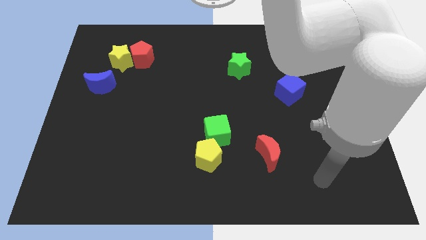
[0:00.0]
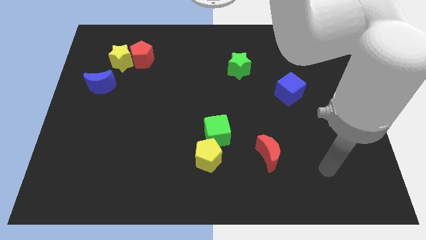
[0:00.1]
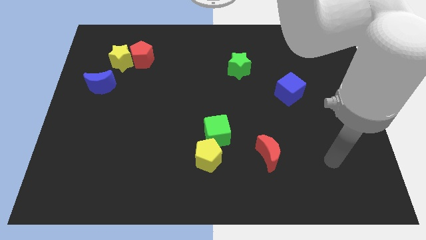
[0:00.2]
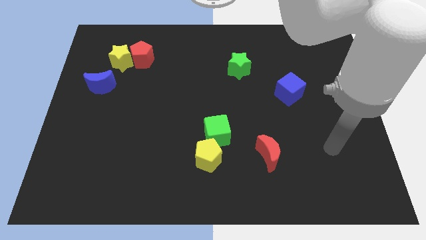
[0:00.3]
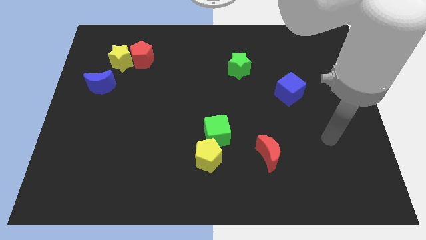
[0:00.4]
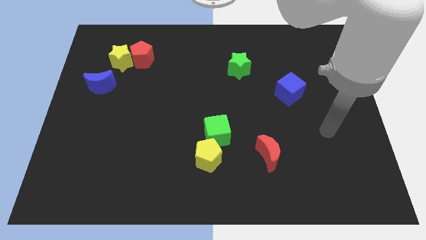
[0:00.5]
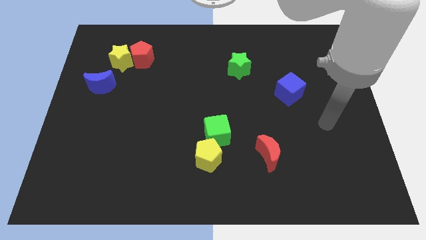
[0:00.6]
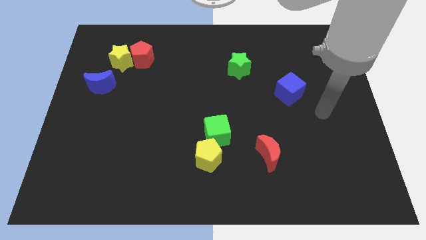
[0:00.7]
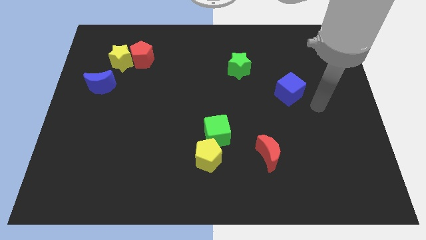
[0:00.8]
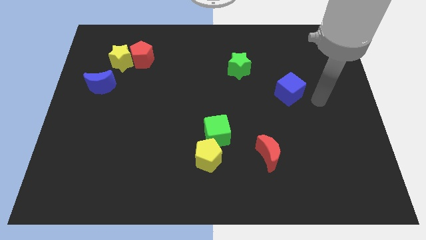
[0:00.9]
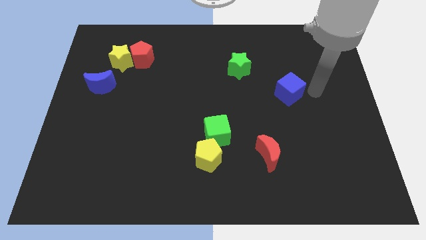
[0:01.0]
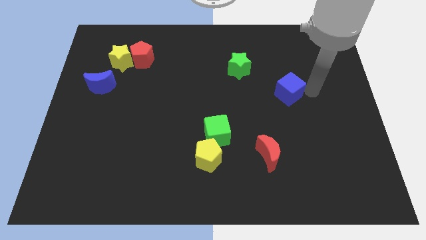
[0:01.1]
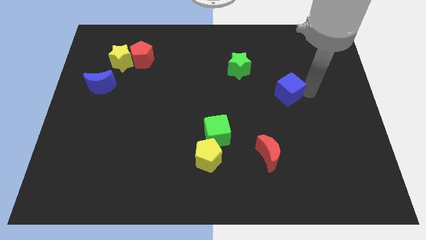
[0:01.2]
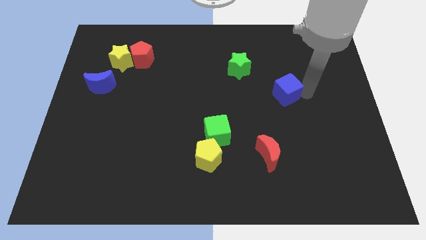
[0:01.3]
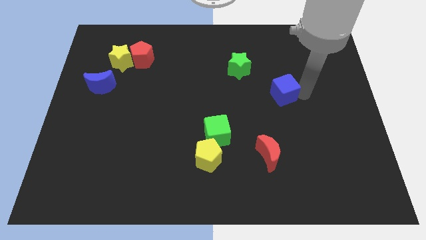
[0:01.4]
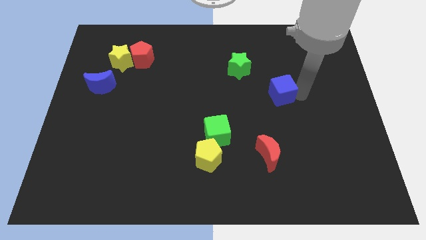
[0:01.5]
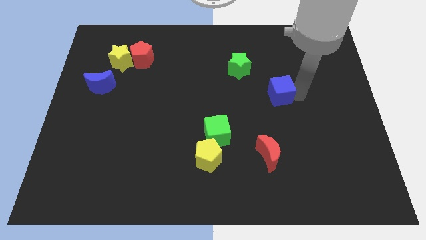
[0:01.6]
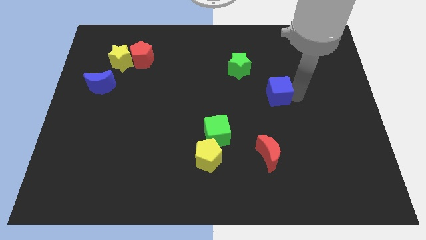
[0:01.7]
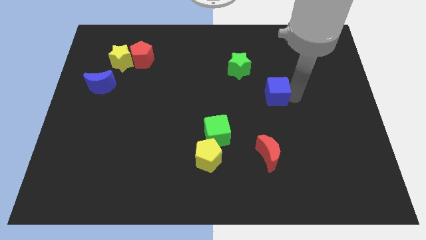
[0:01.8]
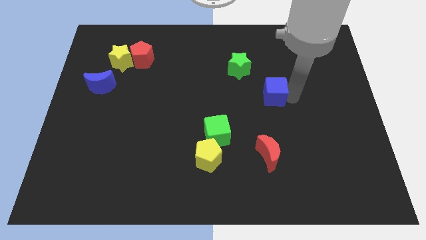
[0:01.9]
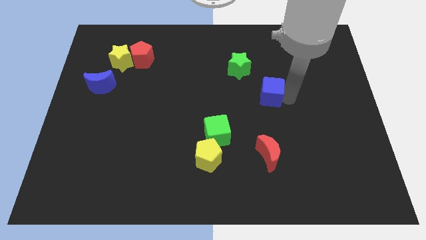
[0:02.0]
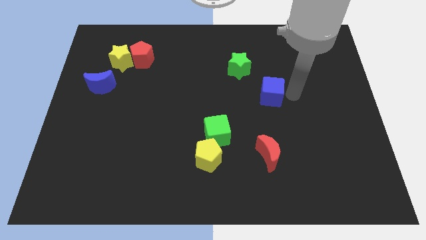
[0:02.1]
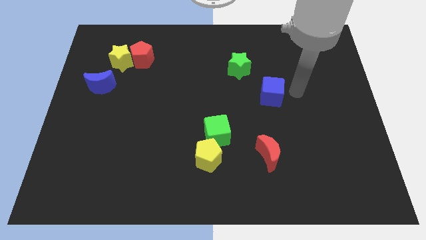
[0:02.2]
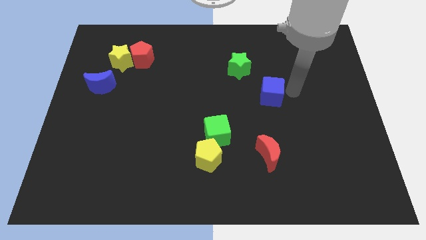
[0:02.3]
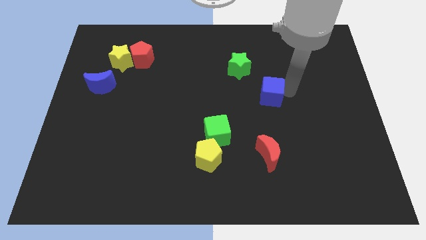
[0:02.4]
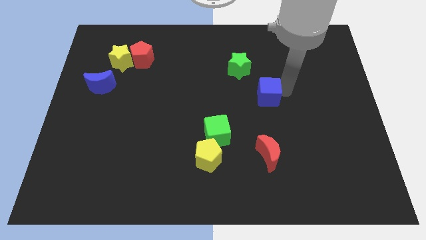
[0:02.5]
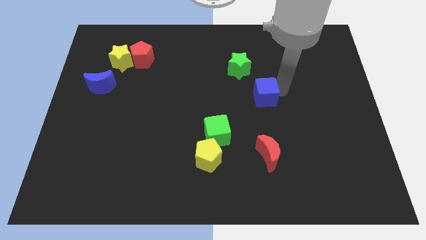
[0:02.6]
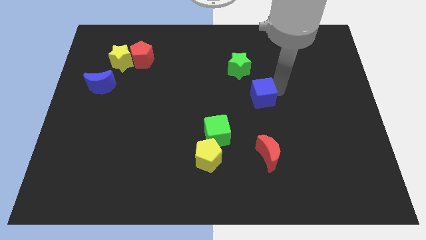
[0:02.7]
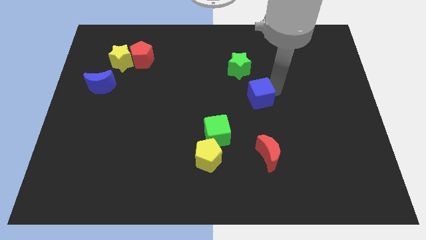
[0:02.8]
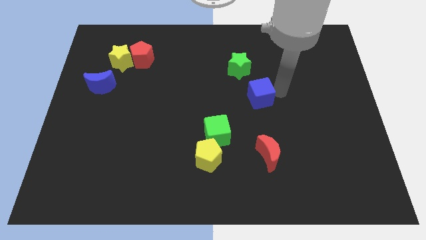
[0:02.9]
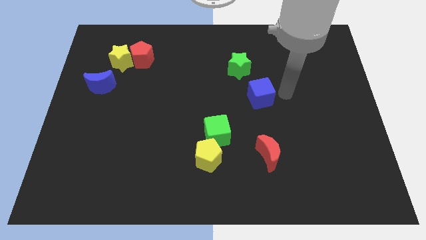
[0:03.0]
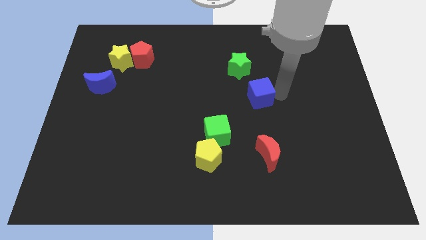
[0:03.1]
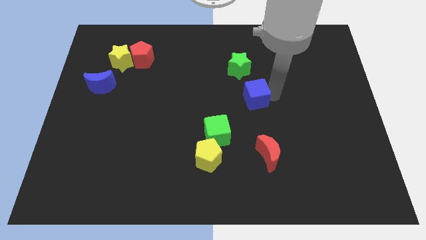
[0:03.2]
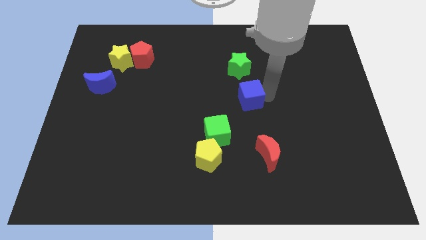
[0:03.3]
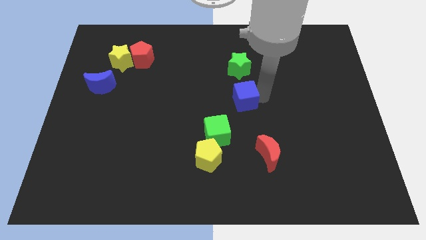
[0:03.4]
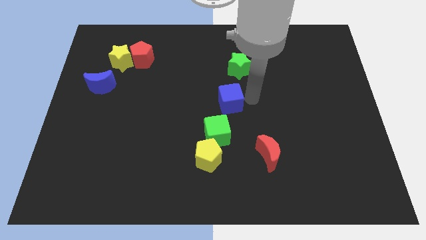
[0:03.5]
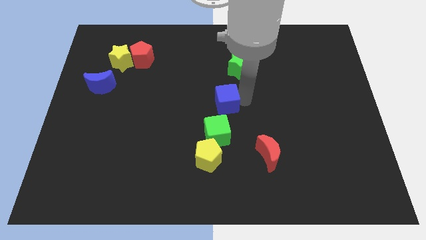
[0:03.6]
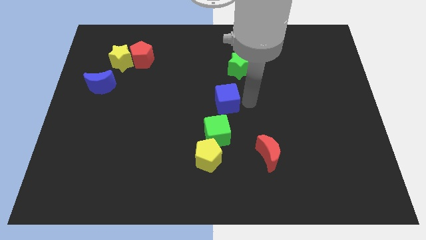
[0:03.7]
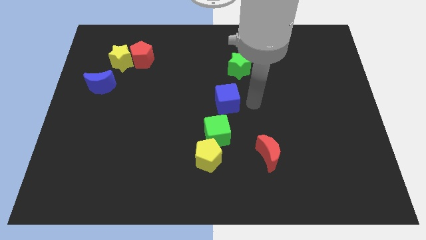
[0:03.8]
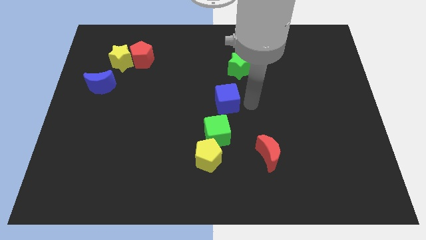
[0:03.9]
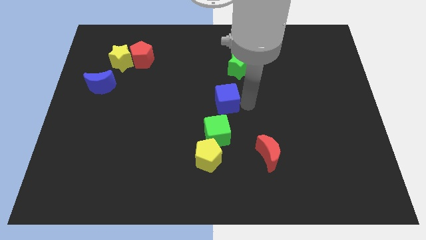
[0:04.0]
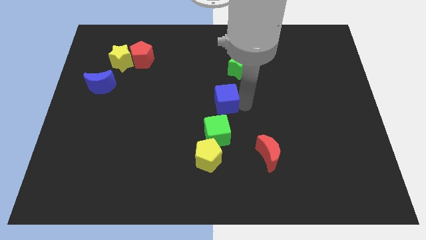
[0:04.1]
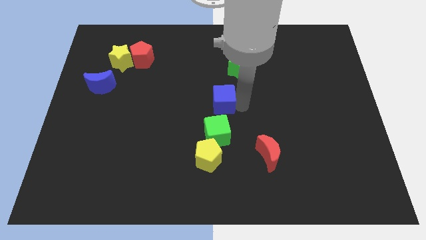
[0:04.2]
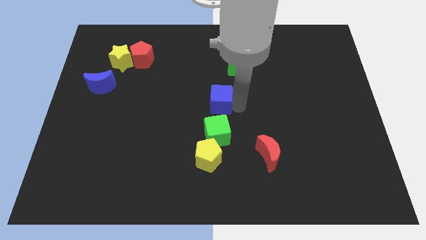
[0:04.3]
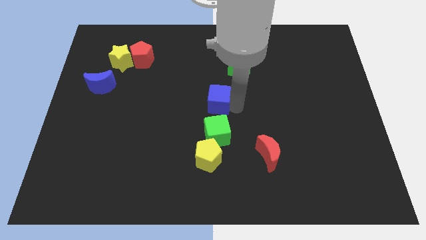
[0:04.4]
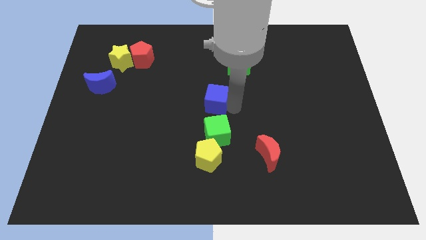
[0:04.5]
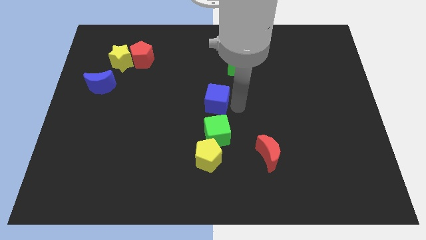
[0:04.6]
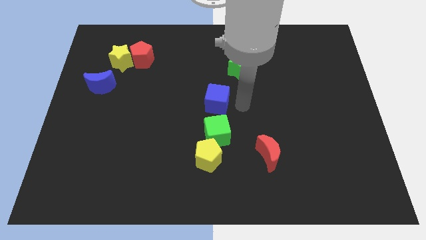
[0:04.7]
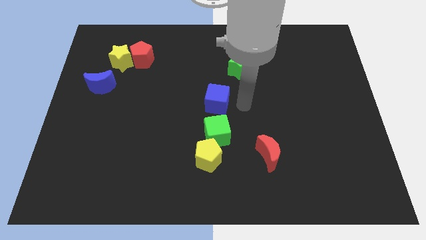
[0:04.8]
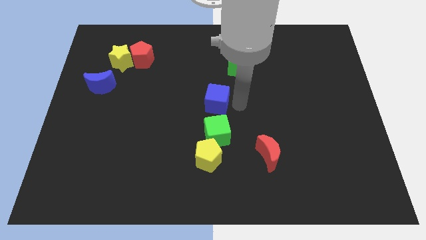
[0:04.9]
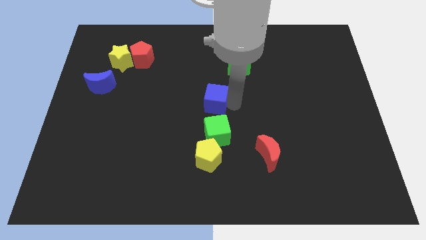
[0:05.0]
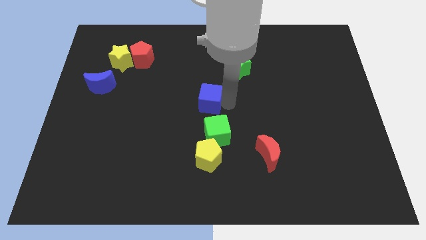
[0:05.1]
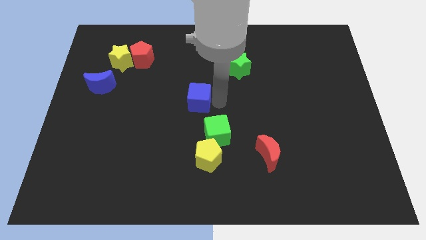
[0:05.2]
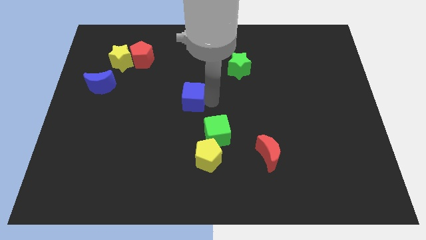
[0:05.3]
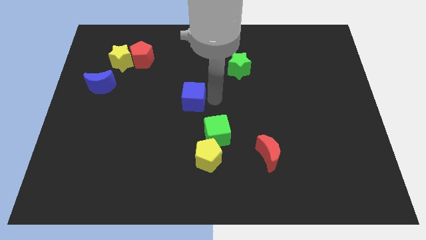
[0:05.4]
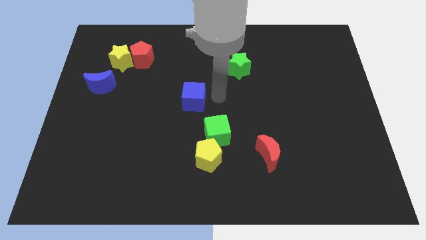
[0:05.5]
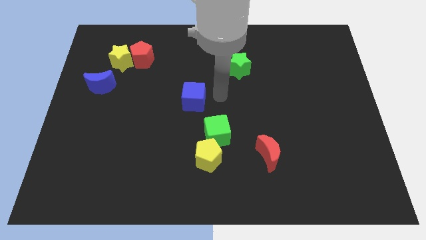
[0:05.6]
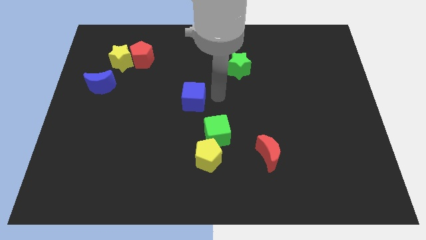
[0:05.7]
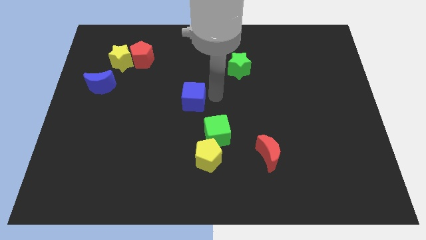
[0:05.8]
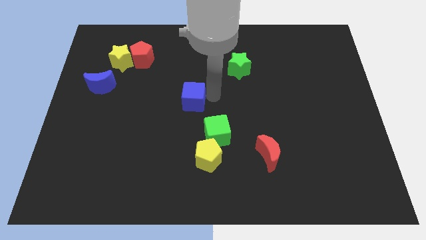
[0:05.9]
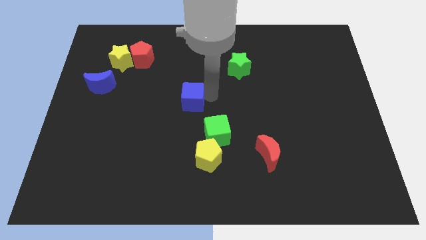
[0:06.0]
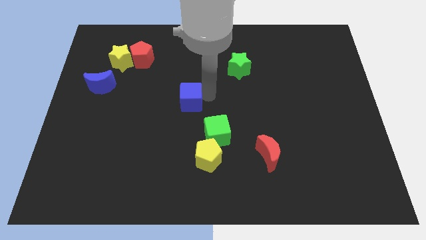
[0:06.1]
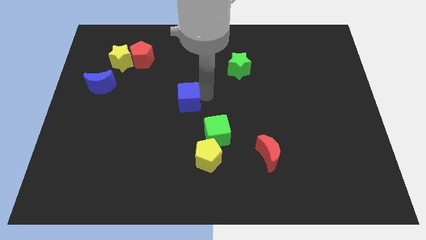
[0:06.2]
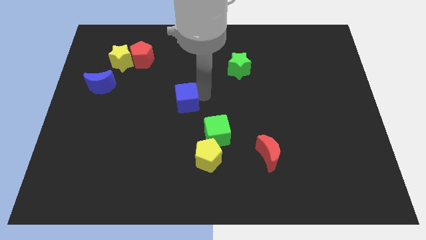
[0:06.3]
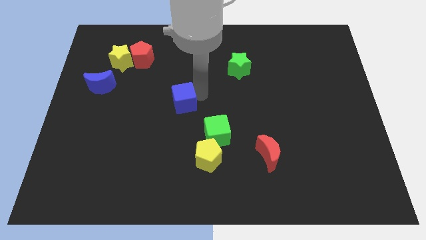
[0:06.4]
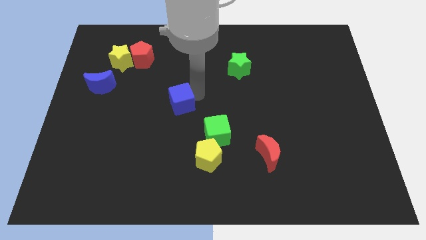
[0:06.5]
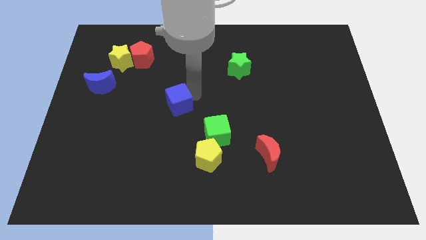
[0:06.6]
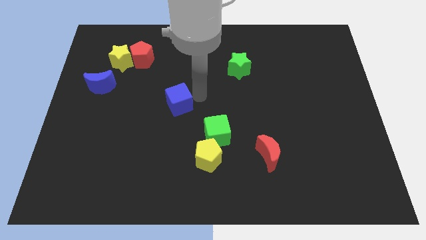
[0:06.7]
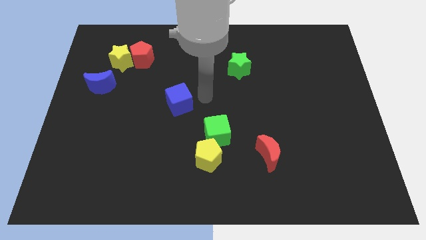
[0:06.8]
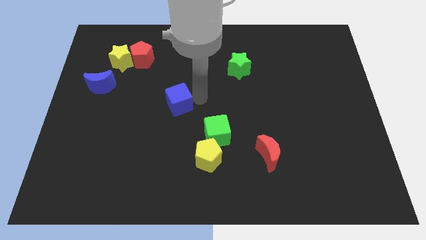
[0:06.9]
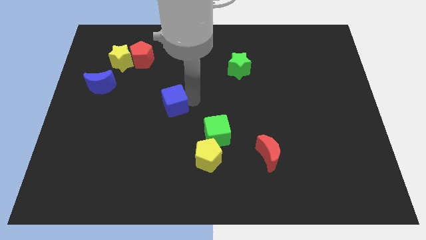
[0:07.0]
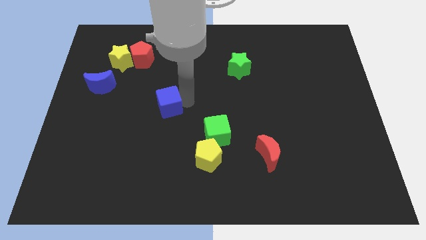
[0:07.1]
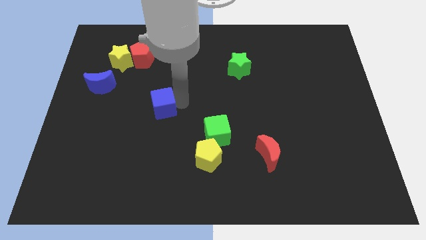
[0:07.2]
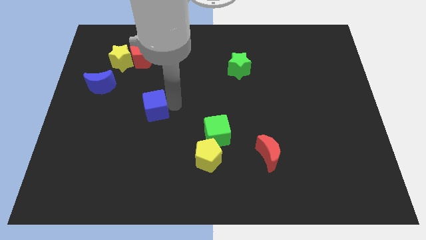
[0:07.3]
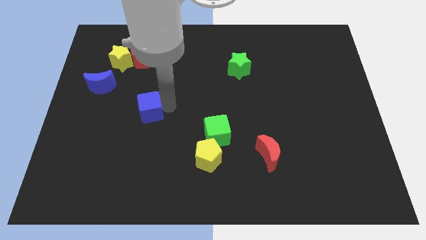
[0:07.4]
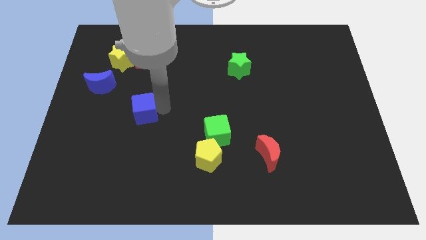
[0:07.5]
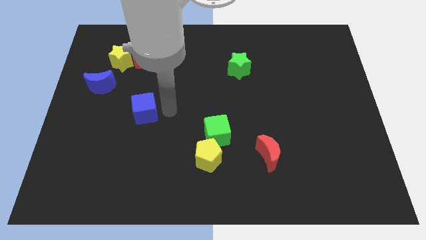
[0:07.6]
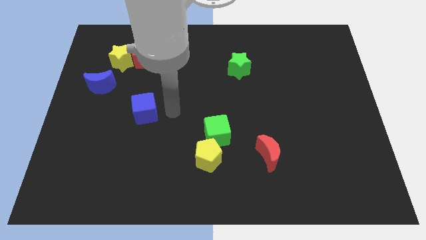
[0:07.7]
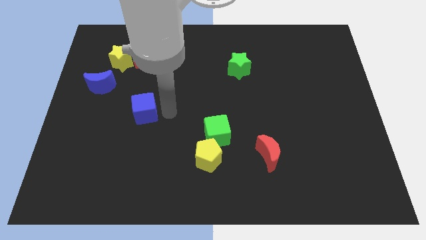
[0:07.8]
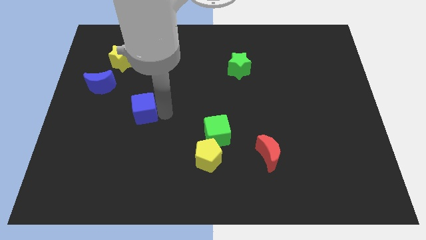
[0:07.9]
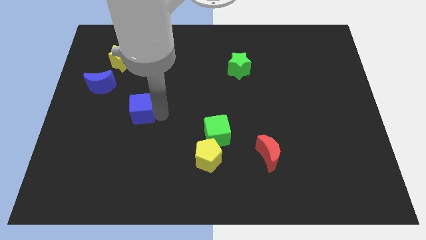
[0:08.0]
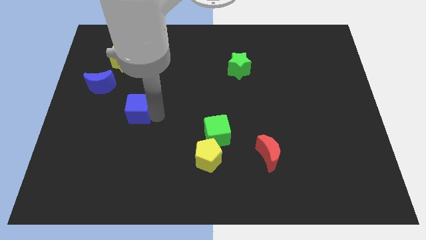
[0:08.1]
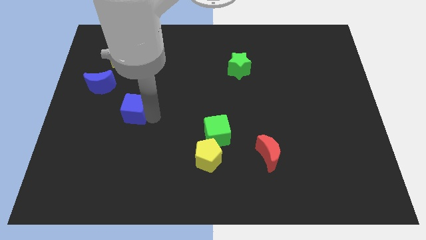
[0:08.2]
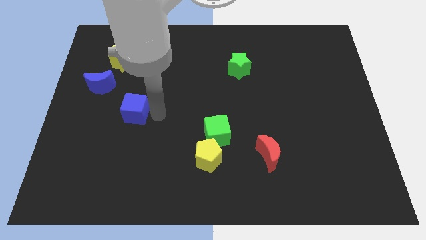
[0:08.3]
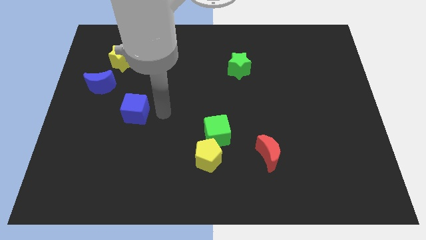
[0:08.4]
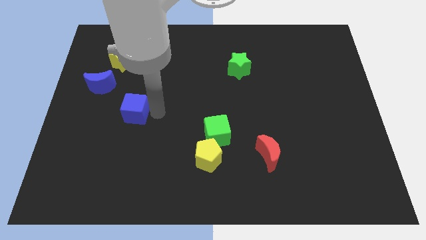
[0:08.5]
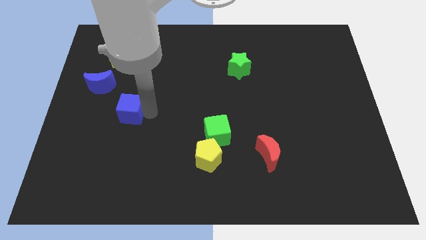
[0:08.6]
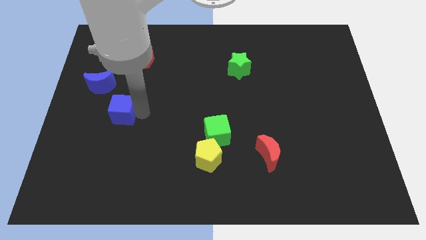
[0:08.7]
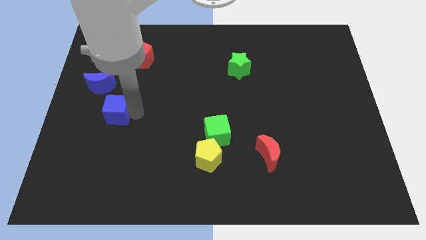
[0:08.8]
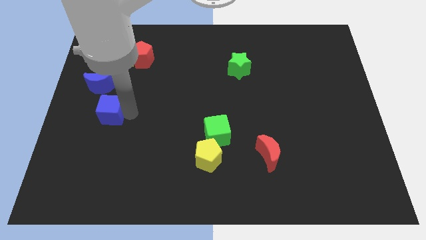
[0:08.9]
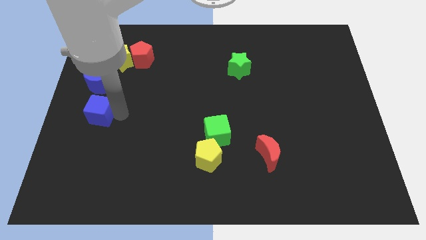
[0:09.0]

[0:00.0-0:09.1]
slide the blue cube to the left side
